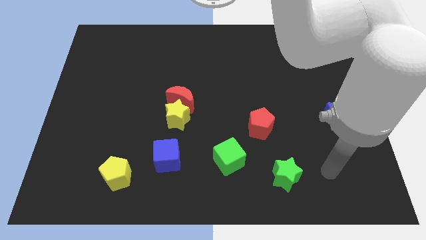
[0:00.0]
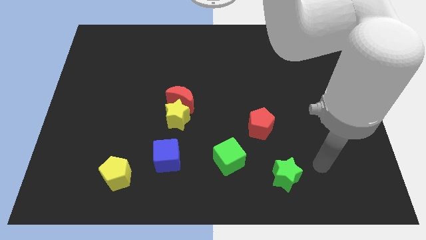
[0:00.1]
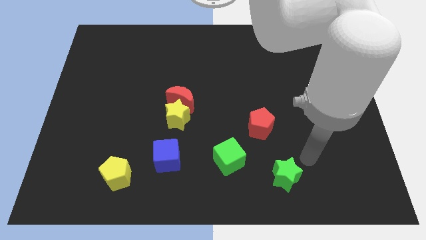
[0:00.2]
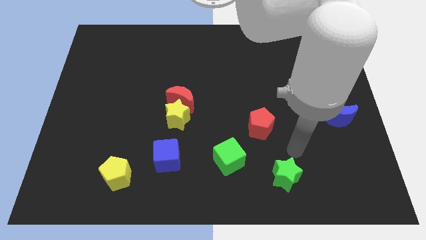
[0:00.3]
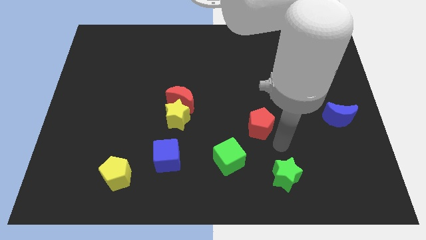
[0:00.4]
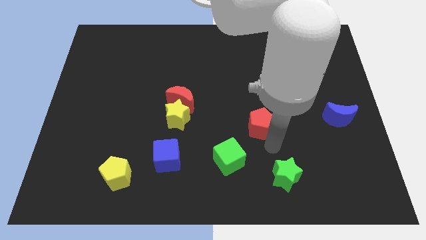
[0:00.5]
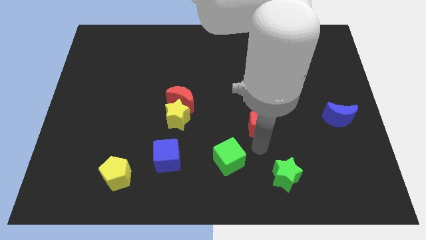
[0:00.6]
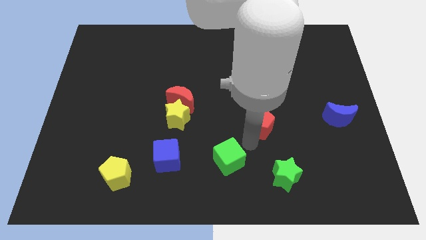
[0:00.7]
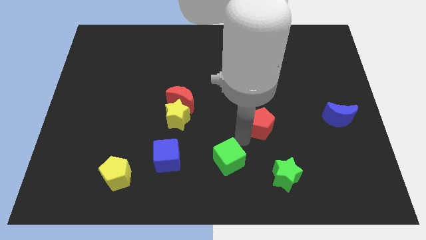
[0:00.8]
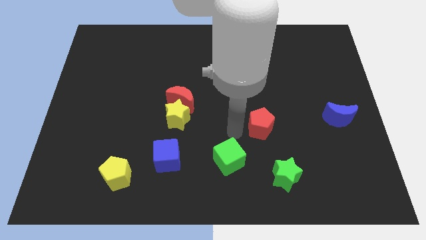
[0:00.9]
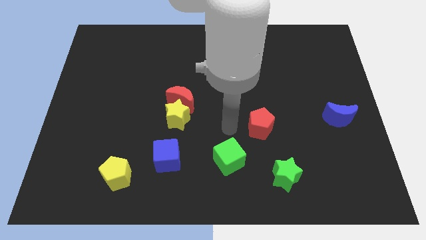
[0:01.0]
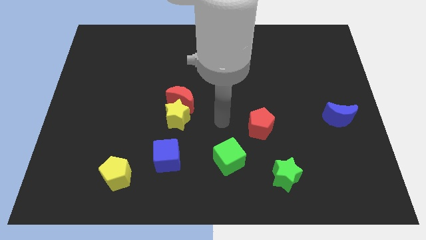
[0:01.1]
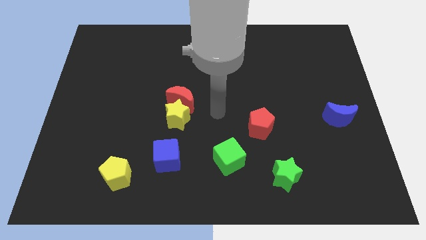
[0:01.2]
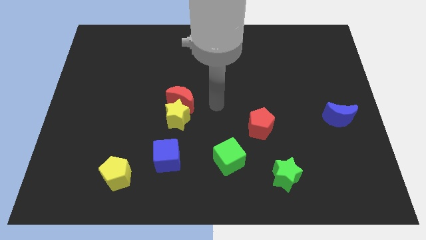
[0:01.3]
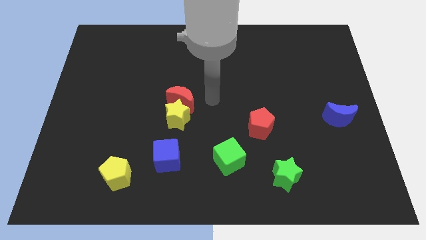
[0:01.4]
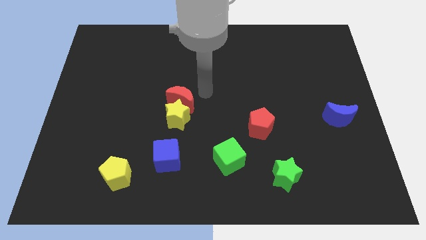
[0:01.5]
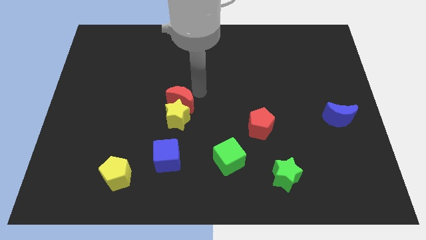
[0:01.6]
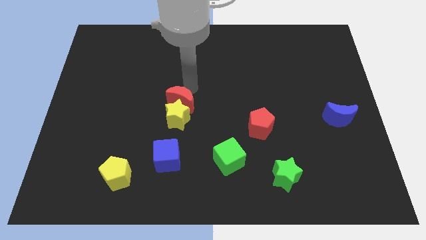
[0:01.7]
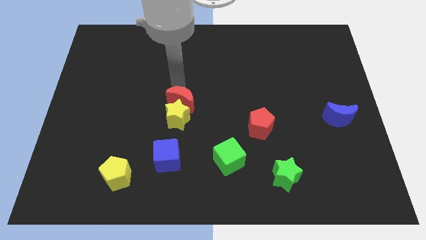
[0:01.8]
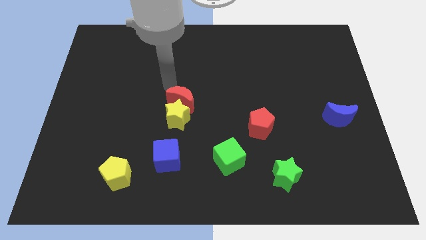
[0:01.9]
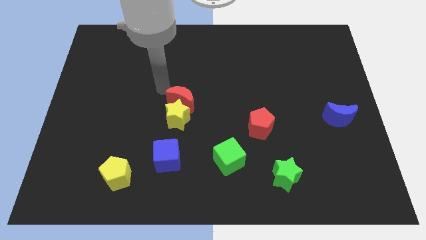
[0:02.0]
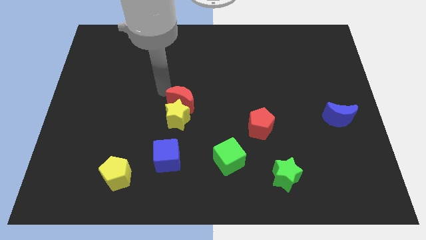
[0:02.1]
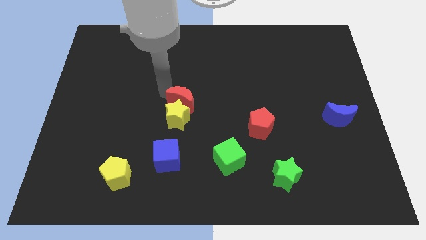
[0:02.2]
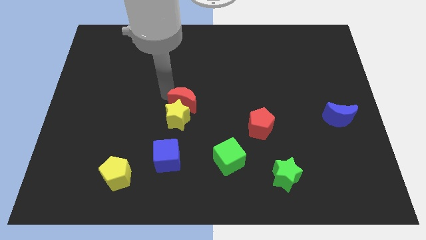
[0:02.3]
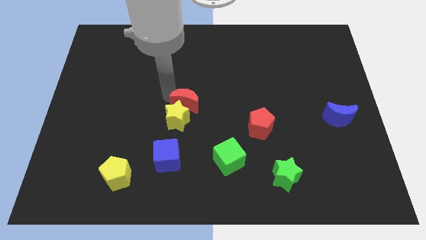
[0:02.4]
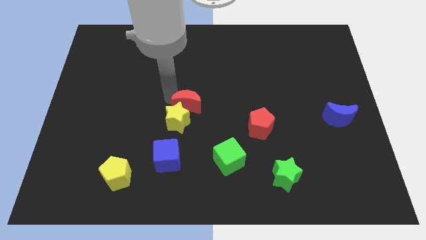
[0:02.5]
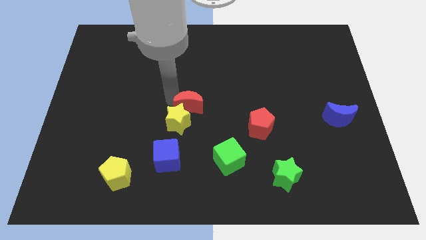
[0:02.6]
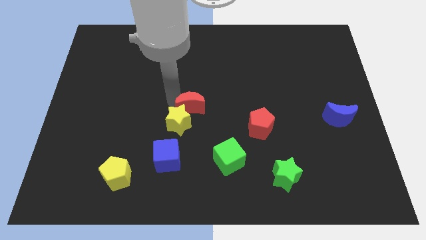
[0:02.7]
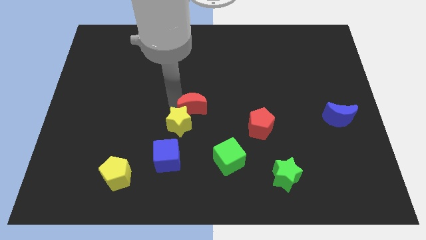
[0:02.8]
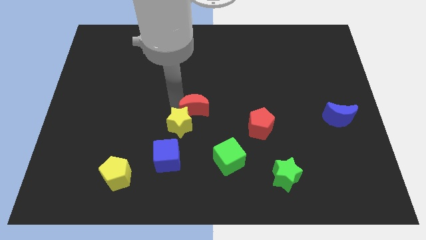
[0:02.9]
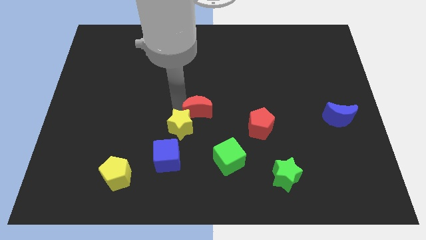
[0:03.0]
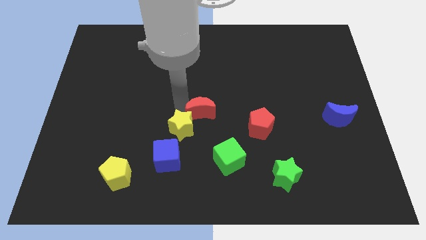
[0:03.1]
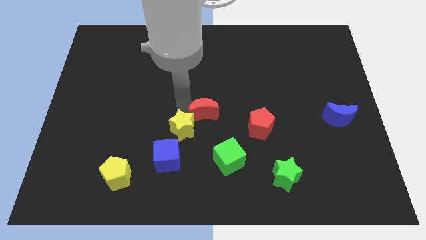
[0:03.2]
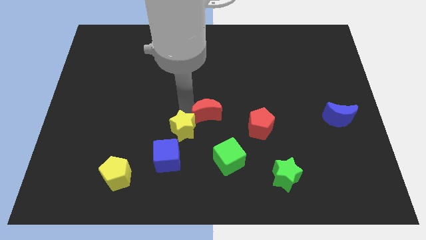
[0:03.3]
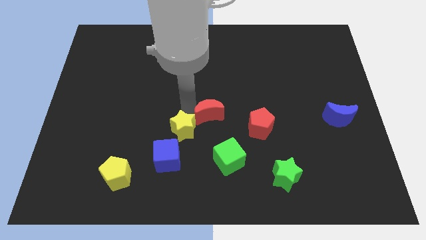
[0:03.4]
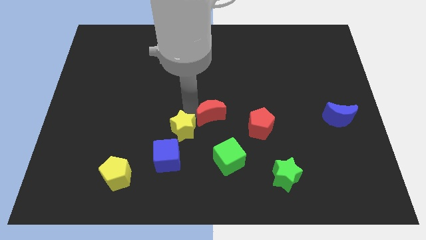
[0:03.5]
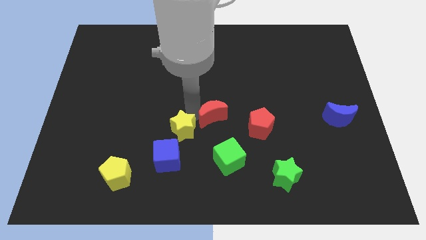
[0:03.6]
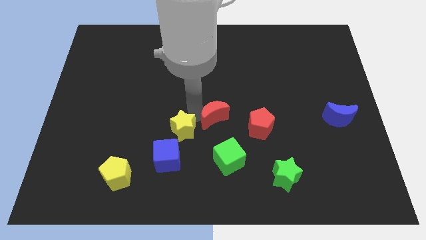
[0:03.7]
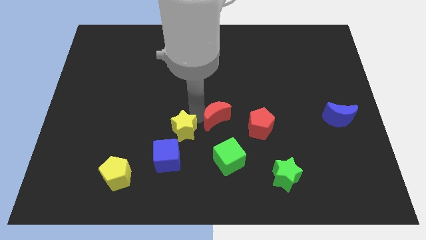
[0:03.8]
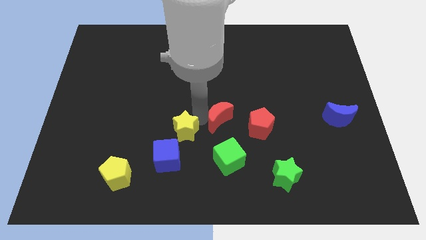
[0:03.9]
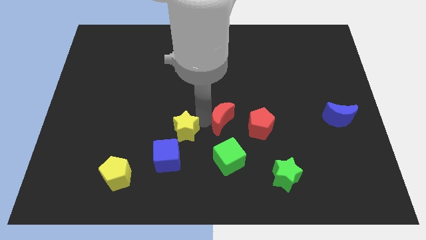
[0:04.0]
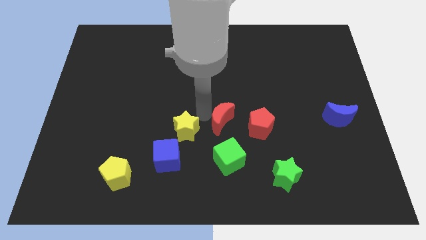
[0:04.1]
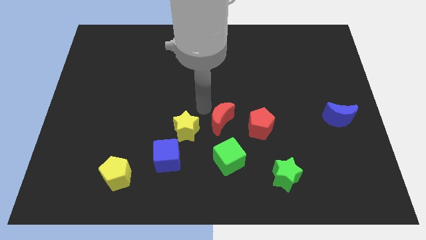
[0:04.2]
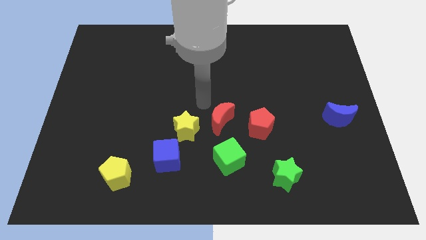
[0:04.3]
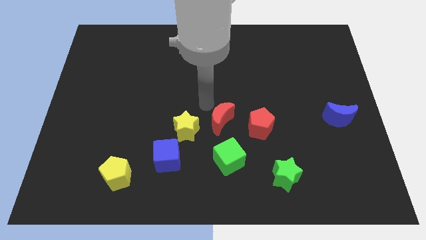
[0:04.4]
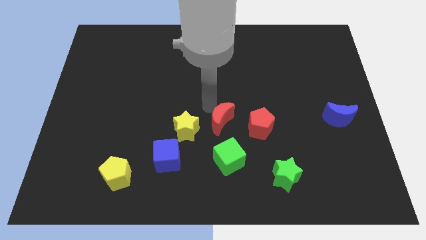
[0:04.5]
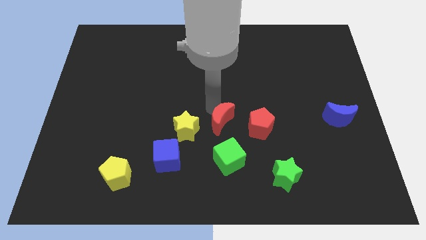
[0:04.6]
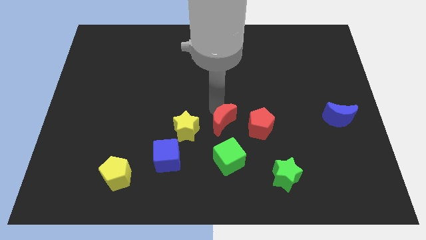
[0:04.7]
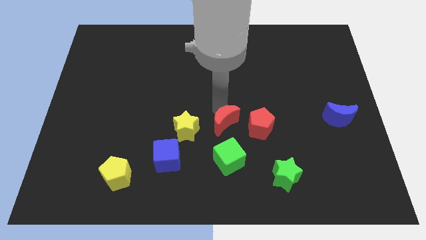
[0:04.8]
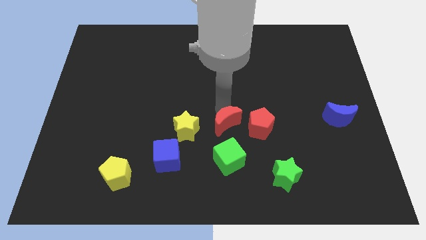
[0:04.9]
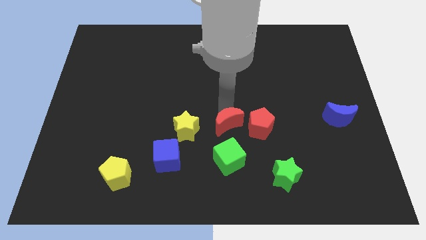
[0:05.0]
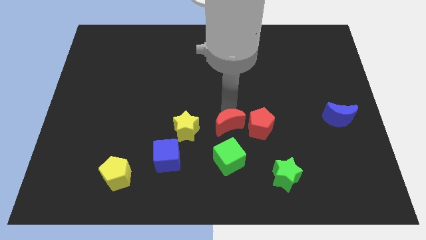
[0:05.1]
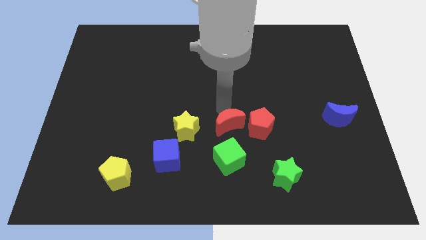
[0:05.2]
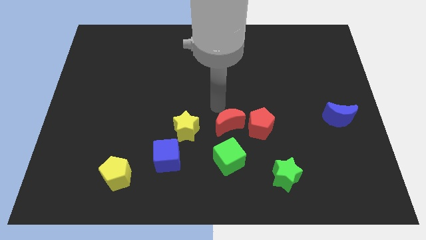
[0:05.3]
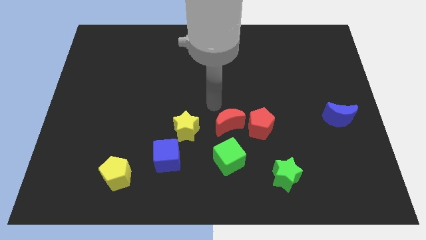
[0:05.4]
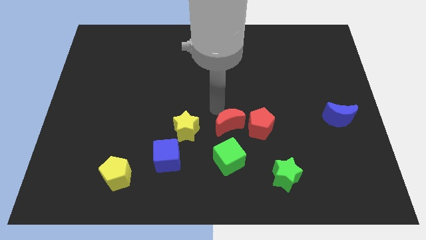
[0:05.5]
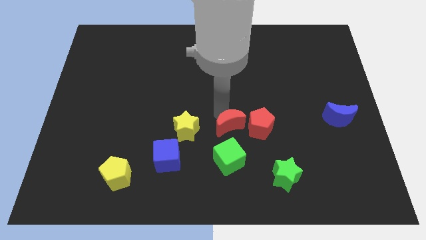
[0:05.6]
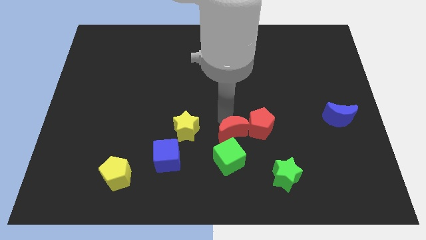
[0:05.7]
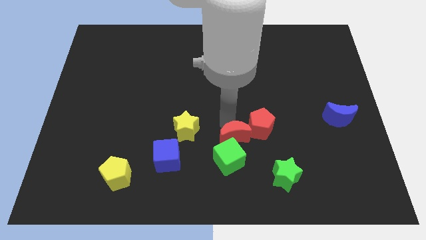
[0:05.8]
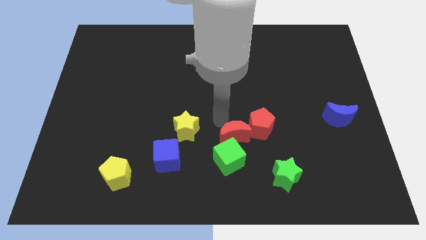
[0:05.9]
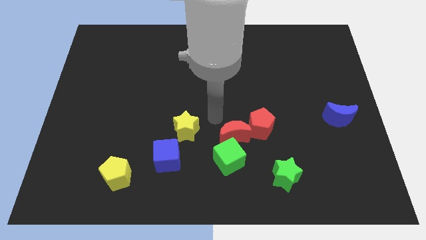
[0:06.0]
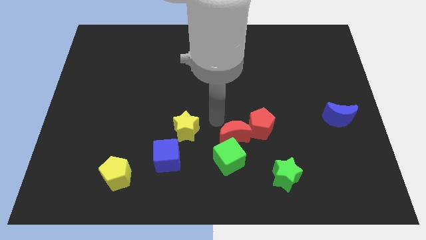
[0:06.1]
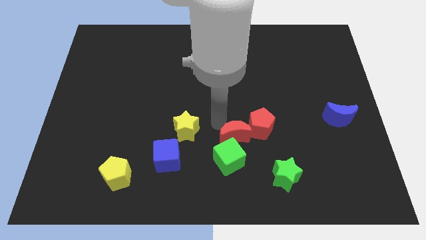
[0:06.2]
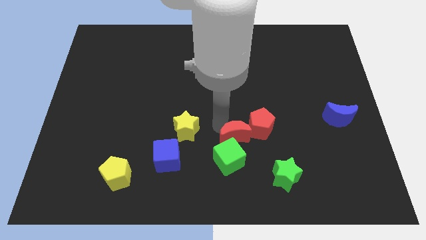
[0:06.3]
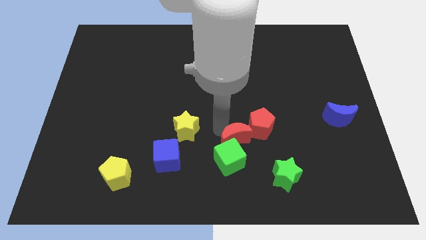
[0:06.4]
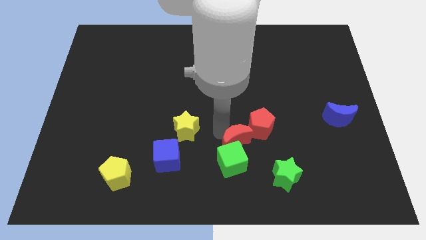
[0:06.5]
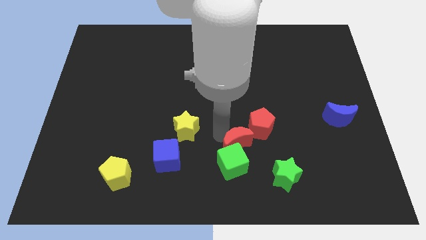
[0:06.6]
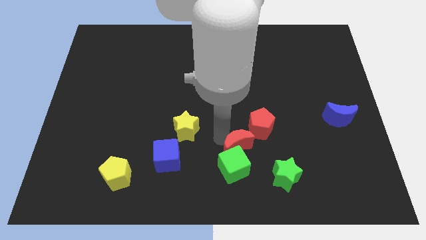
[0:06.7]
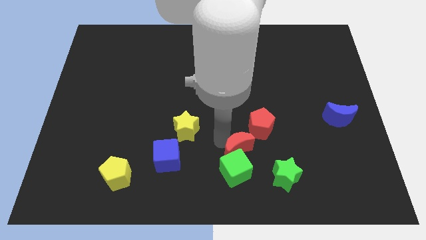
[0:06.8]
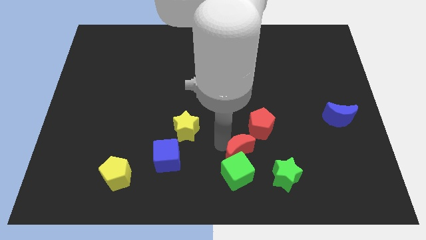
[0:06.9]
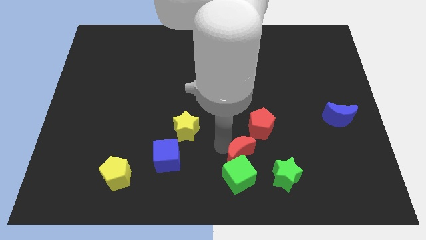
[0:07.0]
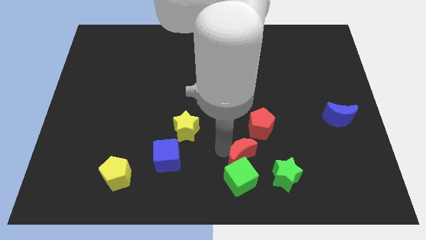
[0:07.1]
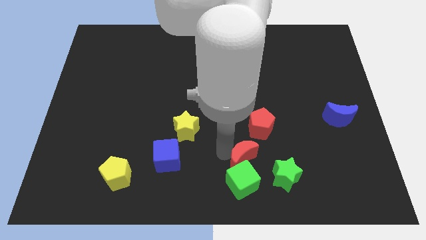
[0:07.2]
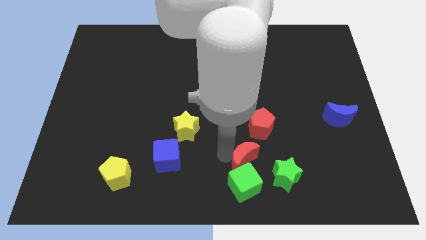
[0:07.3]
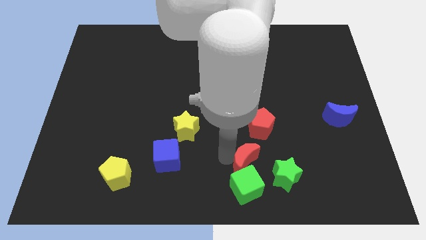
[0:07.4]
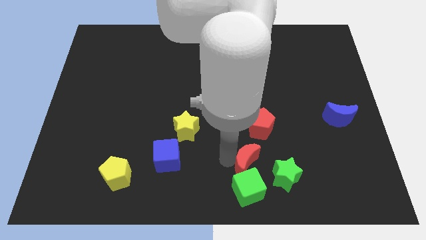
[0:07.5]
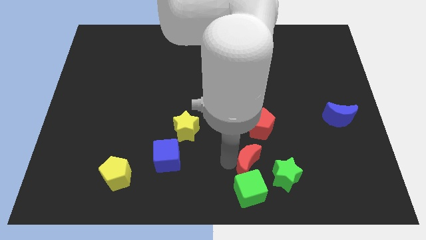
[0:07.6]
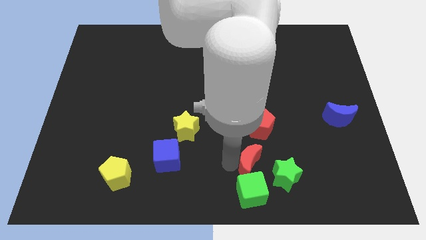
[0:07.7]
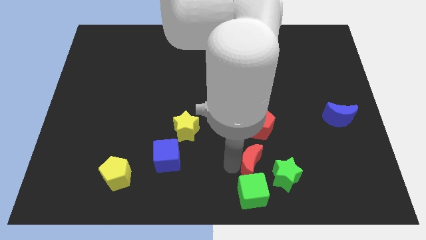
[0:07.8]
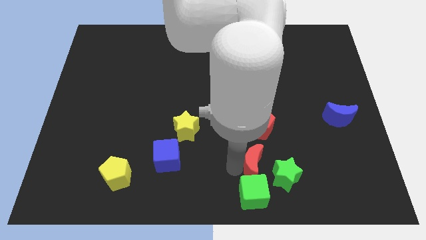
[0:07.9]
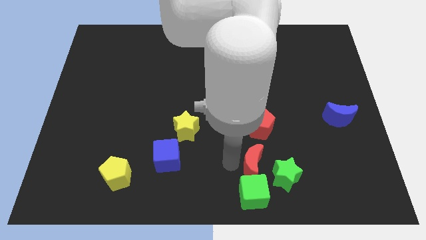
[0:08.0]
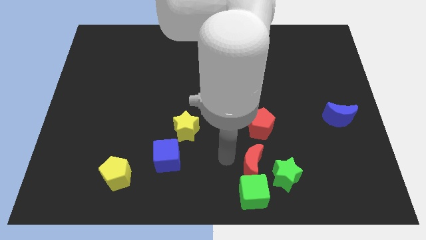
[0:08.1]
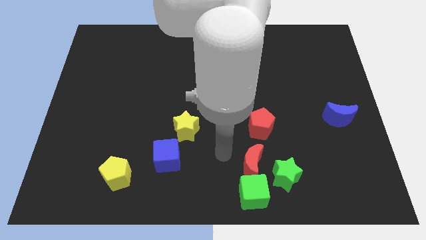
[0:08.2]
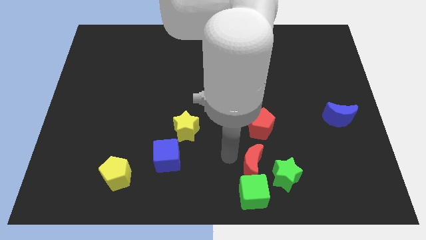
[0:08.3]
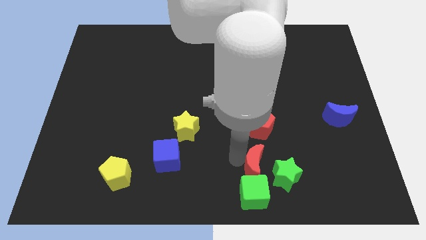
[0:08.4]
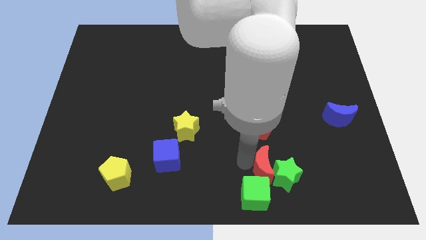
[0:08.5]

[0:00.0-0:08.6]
slide the red moon close to the green star

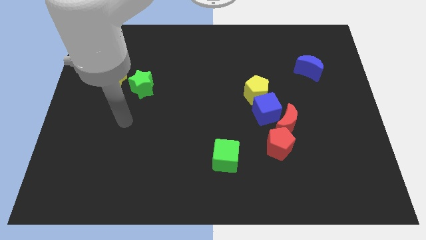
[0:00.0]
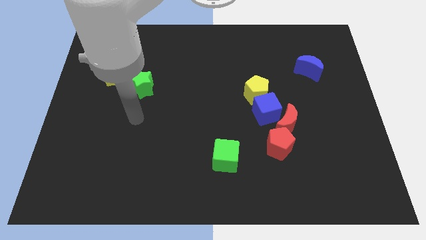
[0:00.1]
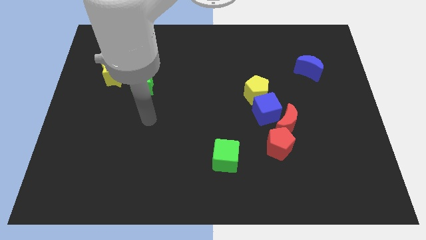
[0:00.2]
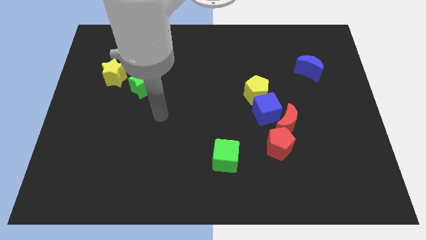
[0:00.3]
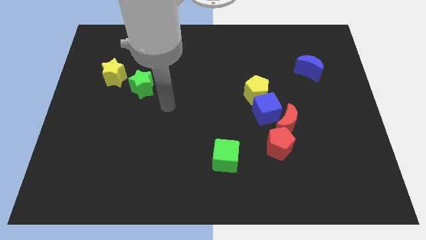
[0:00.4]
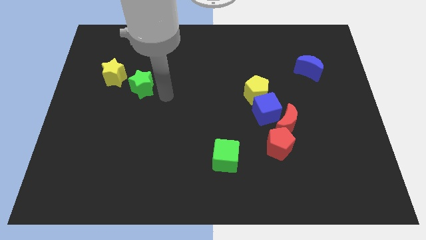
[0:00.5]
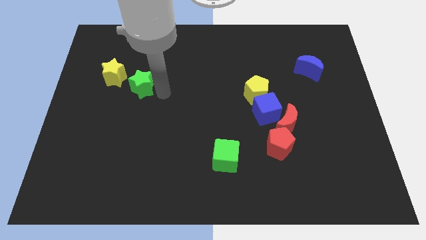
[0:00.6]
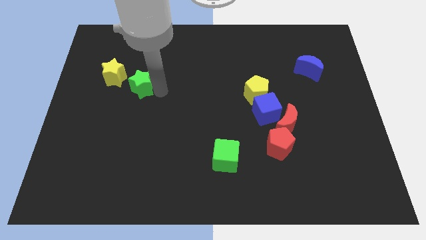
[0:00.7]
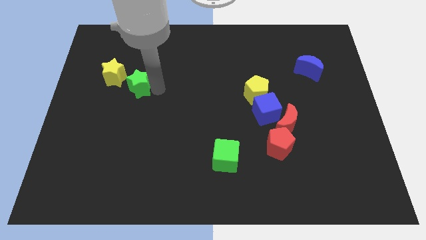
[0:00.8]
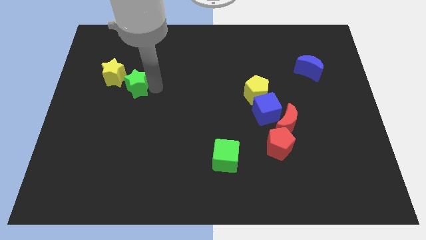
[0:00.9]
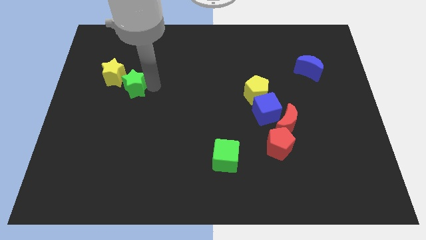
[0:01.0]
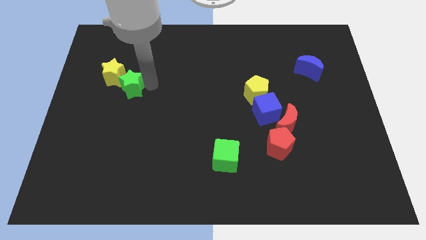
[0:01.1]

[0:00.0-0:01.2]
slide the green star towards the yellow star
